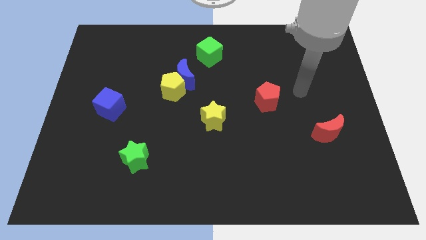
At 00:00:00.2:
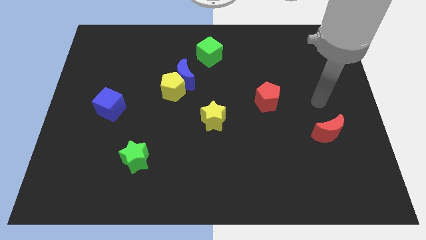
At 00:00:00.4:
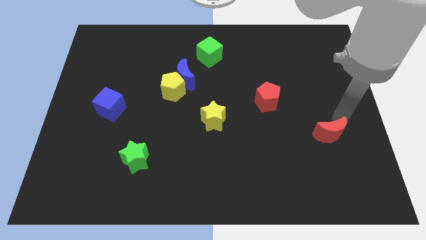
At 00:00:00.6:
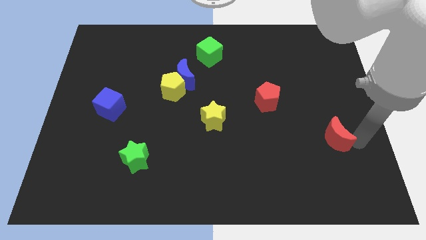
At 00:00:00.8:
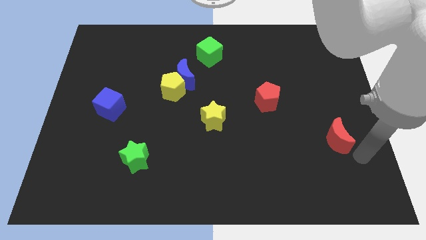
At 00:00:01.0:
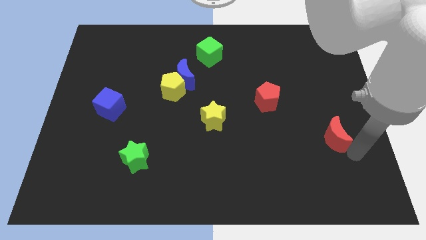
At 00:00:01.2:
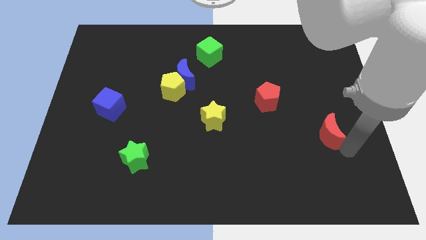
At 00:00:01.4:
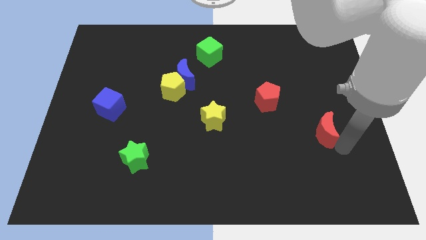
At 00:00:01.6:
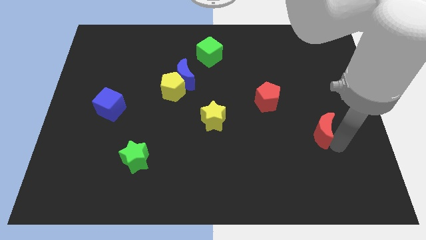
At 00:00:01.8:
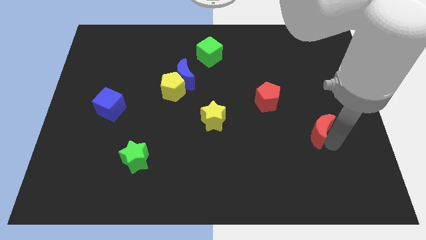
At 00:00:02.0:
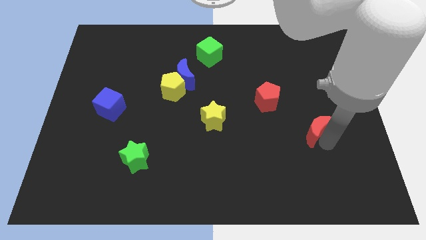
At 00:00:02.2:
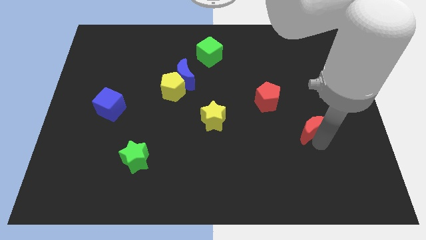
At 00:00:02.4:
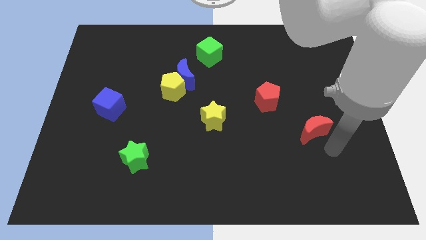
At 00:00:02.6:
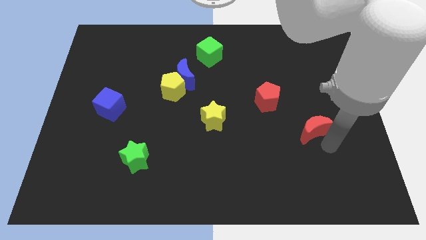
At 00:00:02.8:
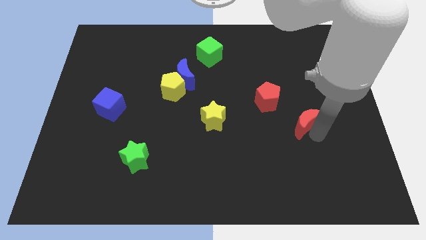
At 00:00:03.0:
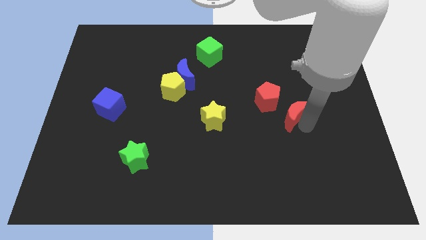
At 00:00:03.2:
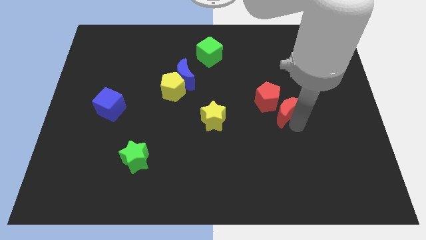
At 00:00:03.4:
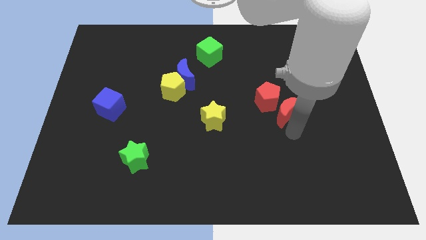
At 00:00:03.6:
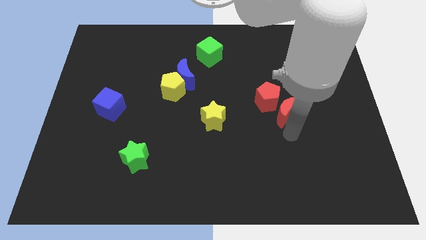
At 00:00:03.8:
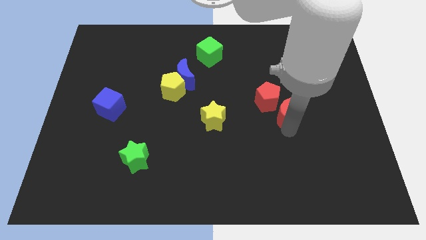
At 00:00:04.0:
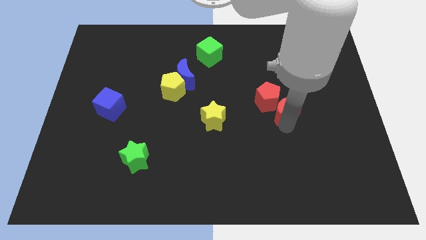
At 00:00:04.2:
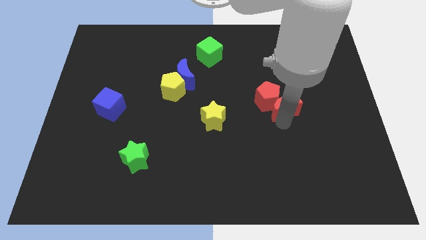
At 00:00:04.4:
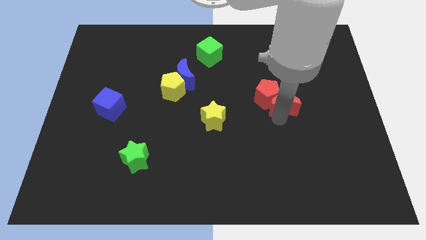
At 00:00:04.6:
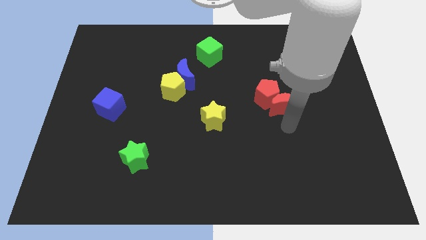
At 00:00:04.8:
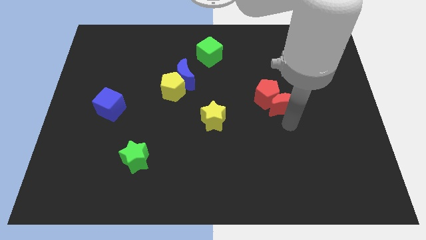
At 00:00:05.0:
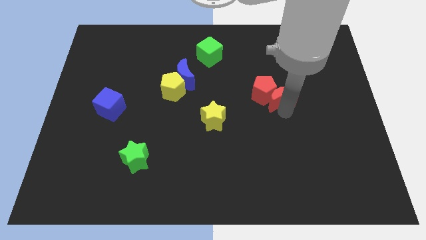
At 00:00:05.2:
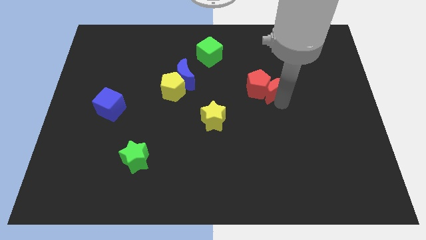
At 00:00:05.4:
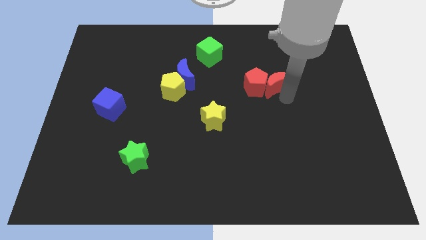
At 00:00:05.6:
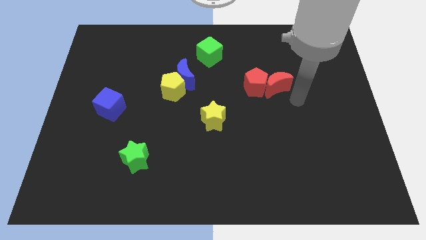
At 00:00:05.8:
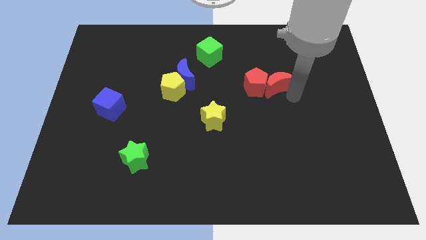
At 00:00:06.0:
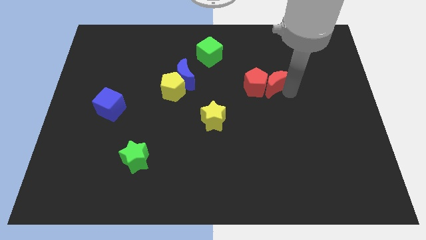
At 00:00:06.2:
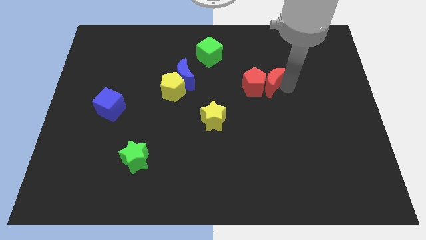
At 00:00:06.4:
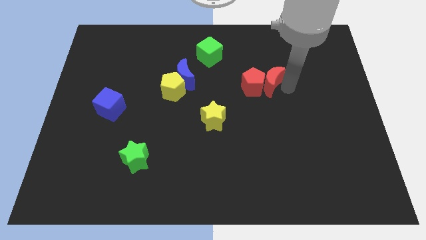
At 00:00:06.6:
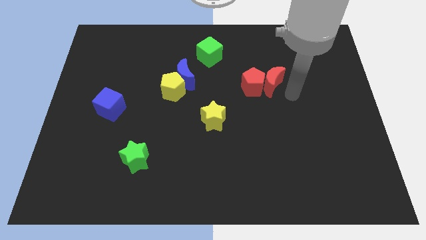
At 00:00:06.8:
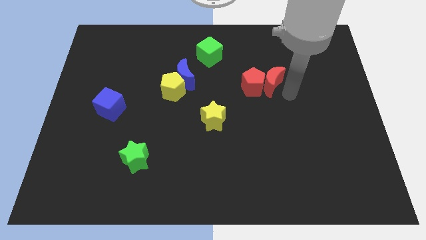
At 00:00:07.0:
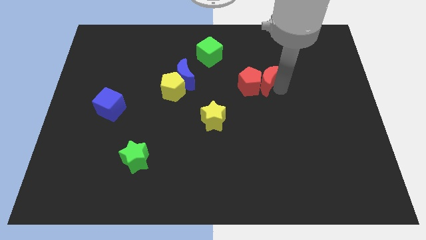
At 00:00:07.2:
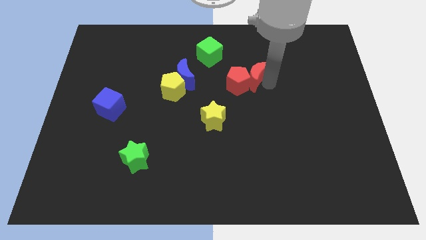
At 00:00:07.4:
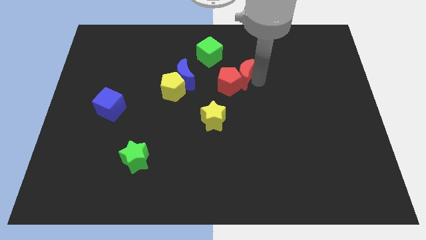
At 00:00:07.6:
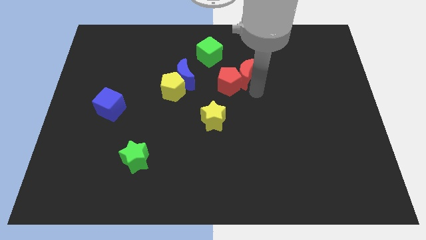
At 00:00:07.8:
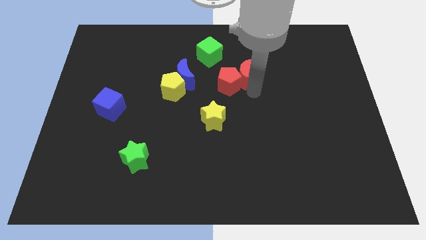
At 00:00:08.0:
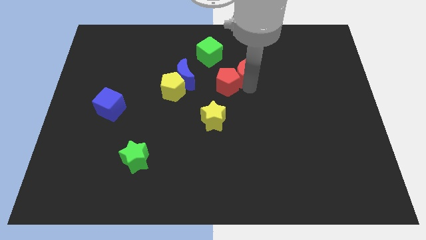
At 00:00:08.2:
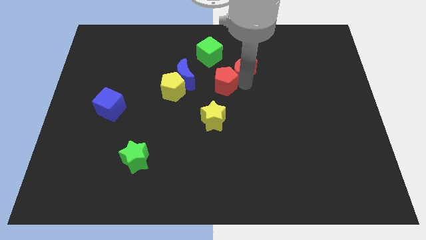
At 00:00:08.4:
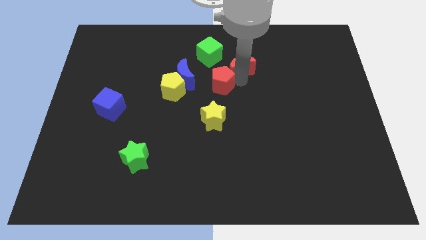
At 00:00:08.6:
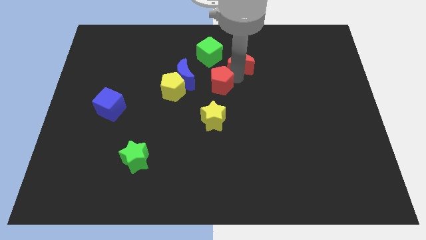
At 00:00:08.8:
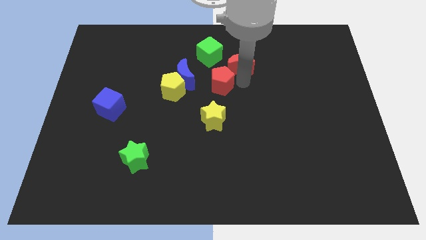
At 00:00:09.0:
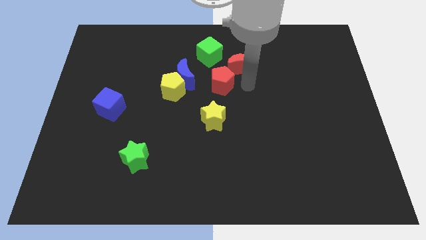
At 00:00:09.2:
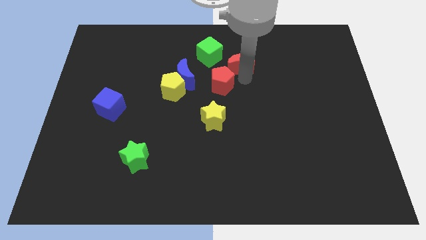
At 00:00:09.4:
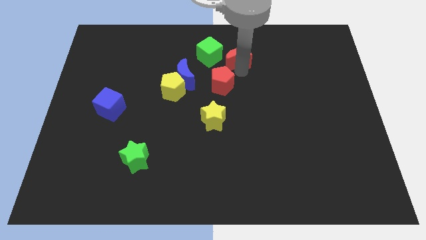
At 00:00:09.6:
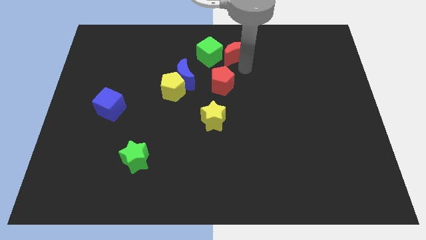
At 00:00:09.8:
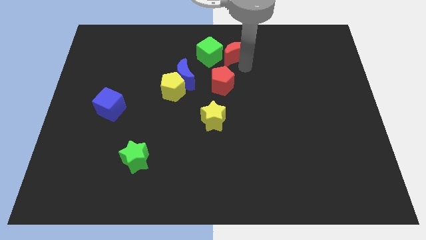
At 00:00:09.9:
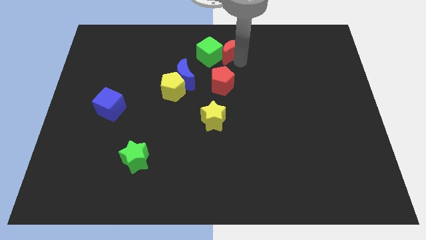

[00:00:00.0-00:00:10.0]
push the red moon to the top

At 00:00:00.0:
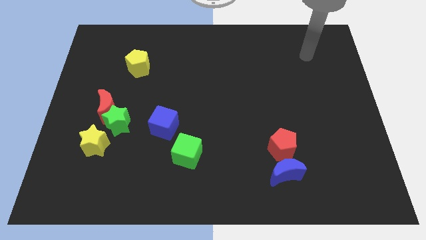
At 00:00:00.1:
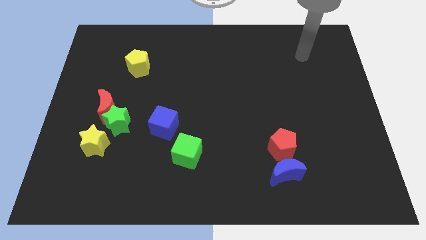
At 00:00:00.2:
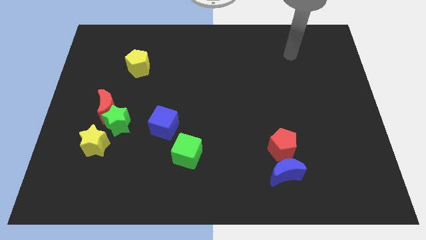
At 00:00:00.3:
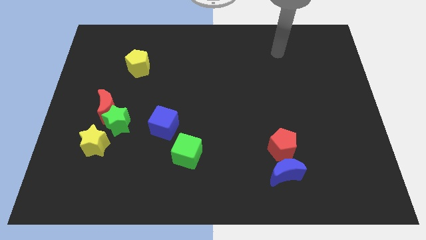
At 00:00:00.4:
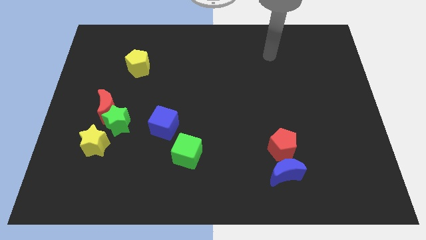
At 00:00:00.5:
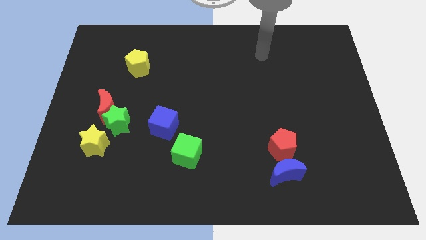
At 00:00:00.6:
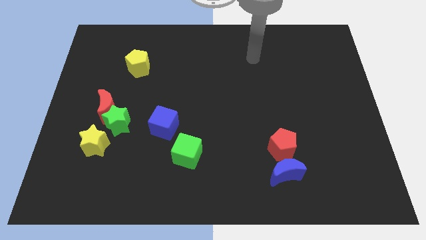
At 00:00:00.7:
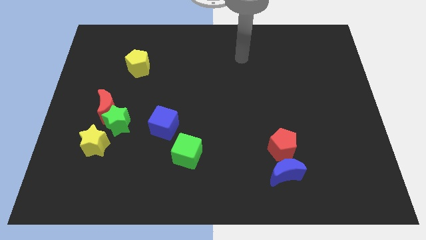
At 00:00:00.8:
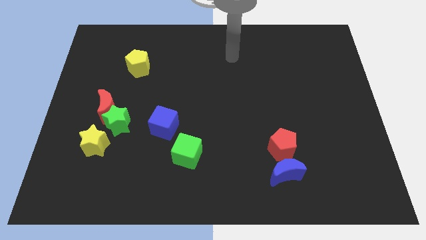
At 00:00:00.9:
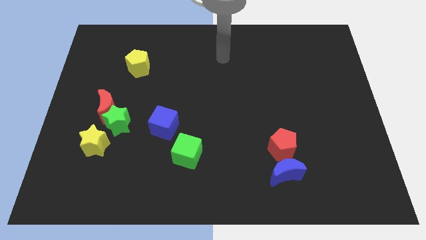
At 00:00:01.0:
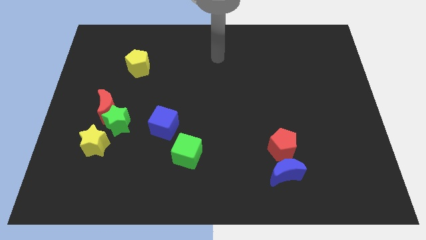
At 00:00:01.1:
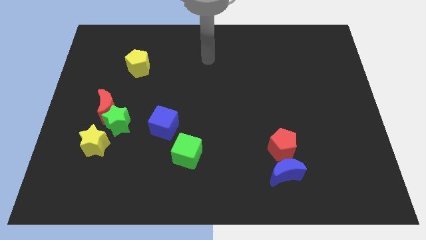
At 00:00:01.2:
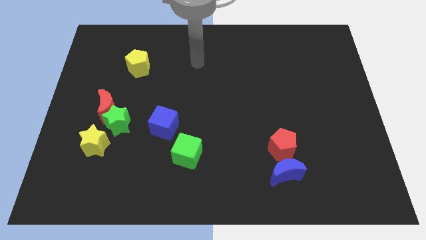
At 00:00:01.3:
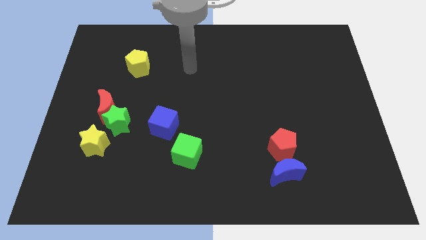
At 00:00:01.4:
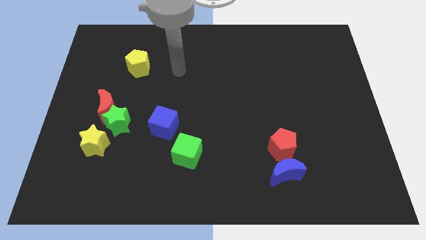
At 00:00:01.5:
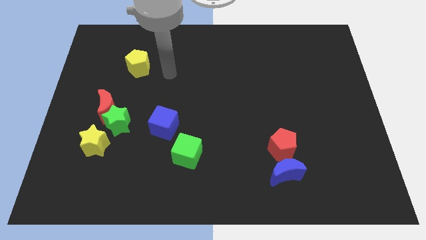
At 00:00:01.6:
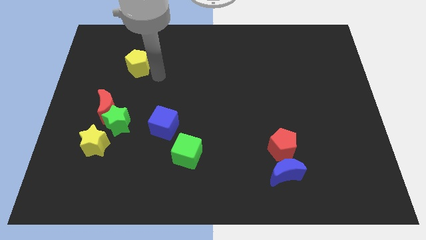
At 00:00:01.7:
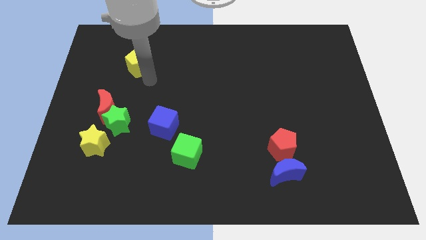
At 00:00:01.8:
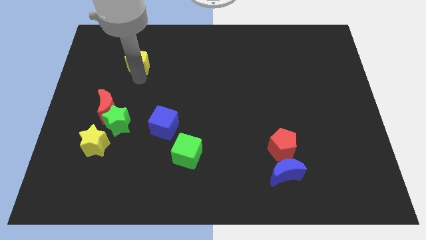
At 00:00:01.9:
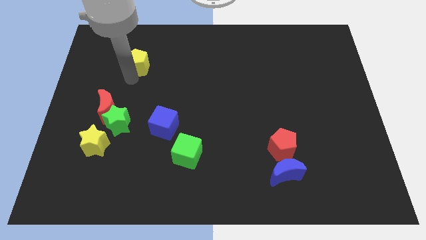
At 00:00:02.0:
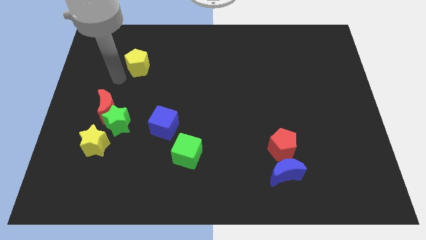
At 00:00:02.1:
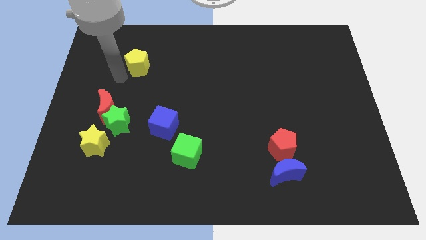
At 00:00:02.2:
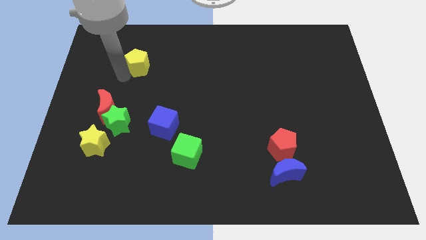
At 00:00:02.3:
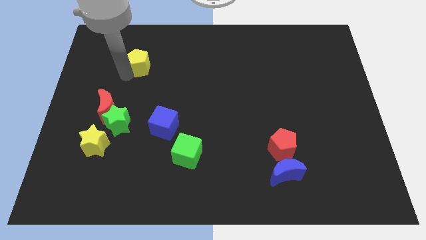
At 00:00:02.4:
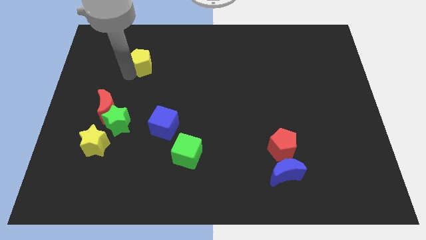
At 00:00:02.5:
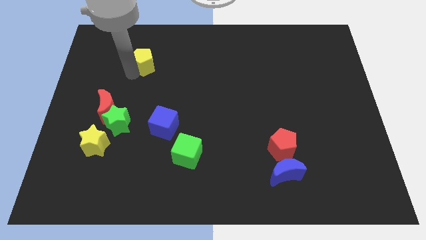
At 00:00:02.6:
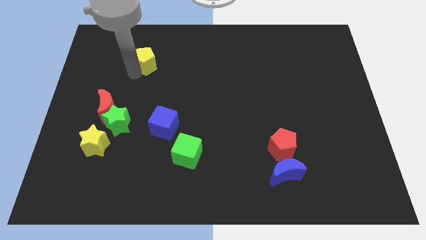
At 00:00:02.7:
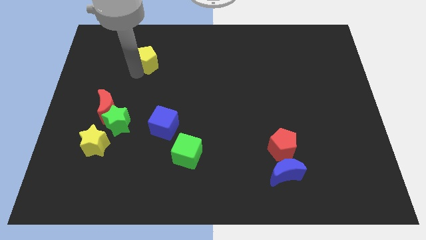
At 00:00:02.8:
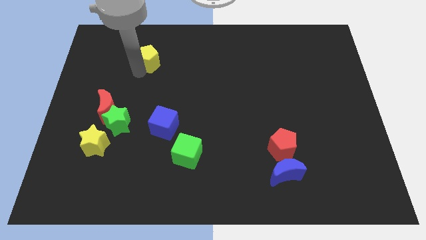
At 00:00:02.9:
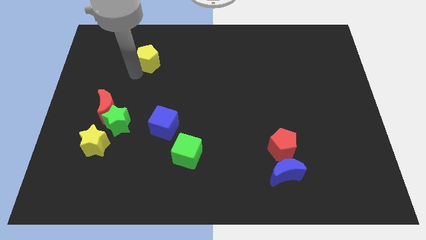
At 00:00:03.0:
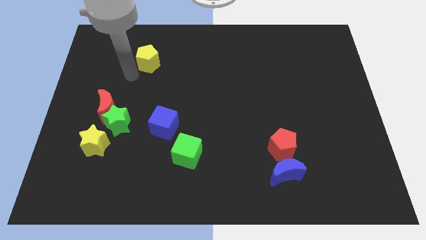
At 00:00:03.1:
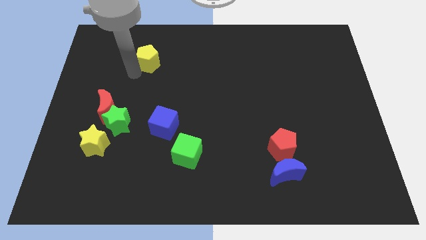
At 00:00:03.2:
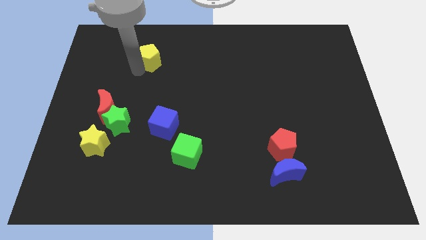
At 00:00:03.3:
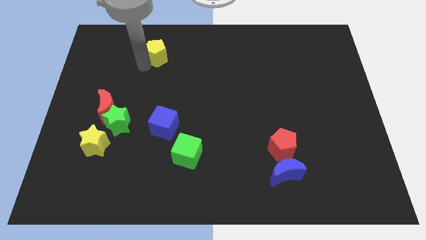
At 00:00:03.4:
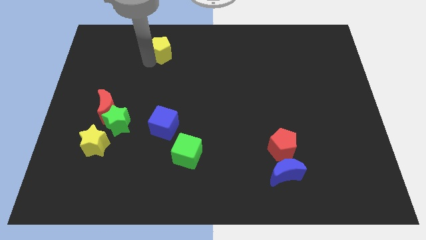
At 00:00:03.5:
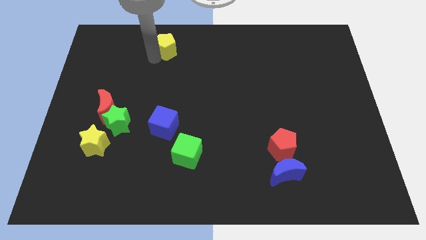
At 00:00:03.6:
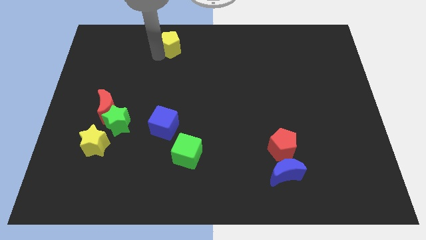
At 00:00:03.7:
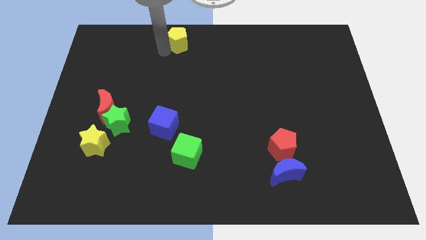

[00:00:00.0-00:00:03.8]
slide the yellow pentagon to the top side
